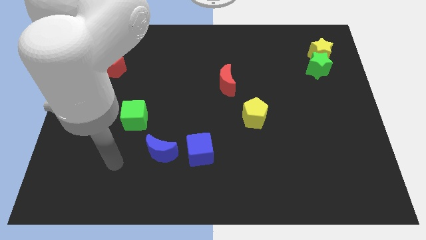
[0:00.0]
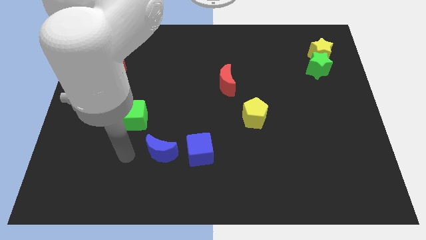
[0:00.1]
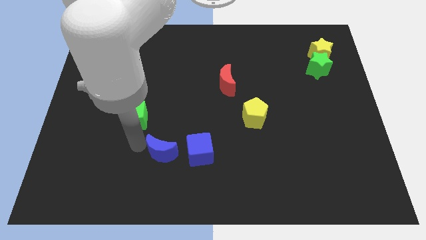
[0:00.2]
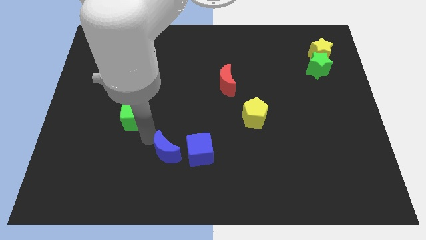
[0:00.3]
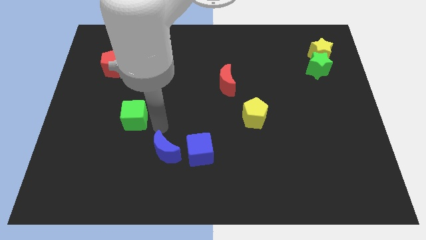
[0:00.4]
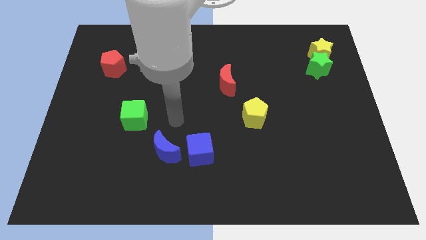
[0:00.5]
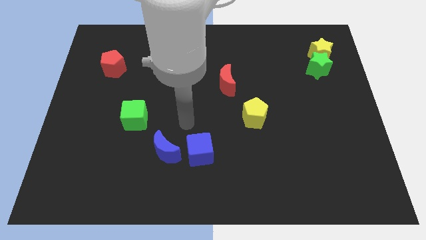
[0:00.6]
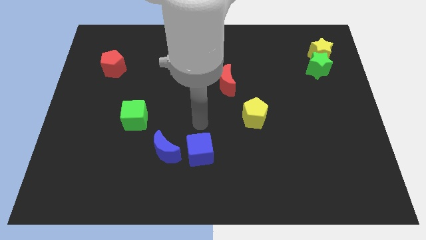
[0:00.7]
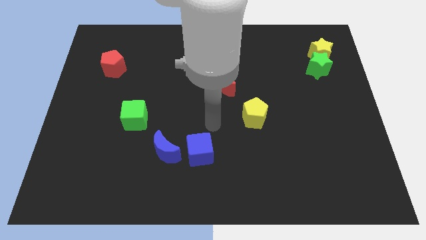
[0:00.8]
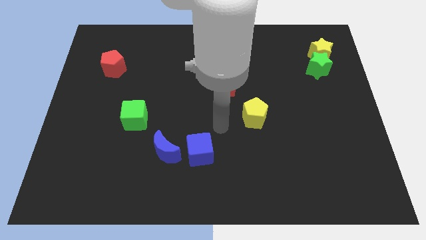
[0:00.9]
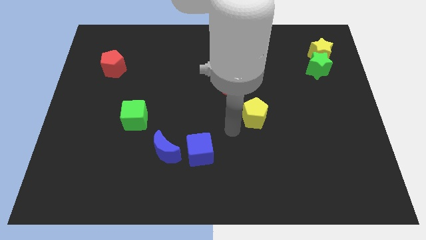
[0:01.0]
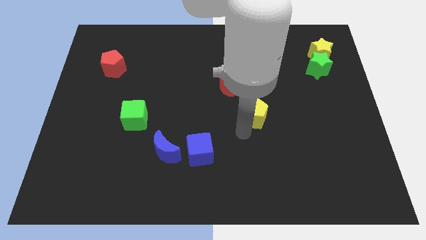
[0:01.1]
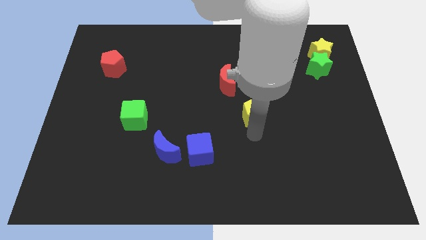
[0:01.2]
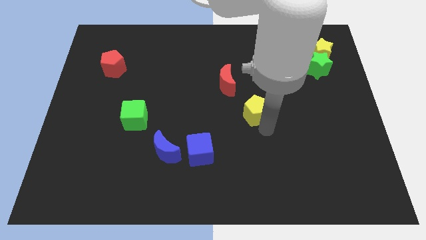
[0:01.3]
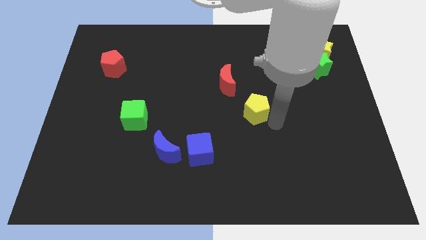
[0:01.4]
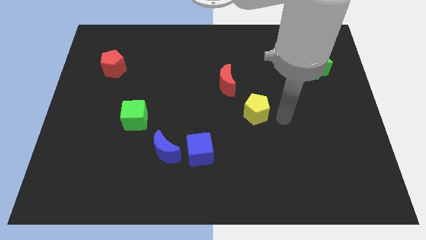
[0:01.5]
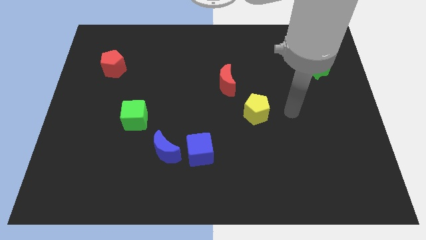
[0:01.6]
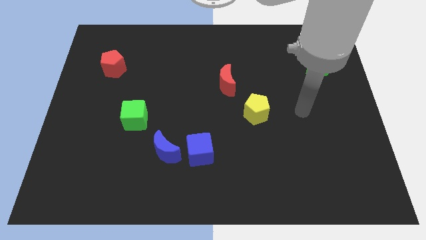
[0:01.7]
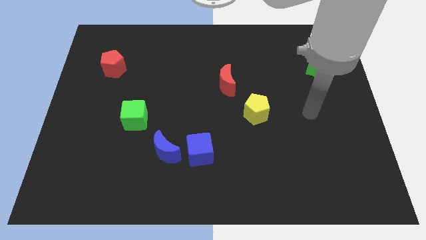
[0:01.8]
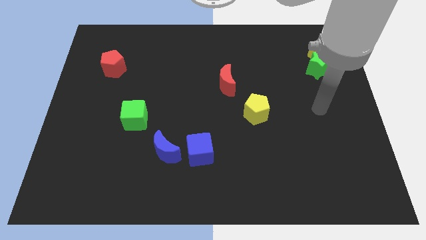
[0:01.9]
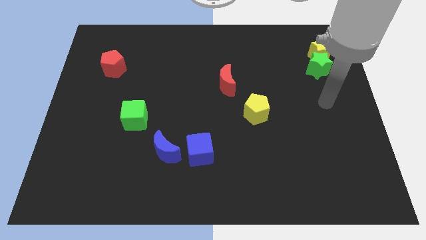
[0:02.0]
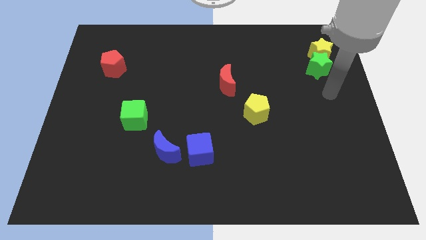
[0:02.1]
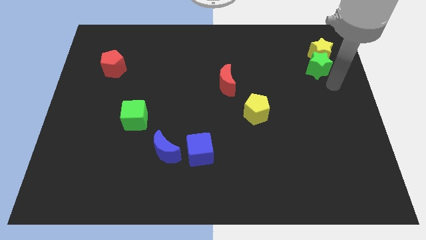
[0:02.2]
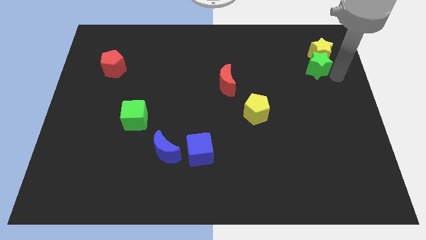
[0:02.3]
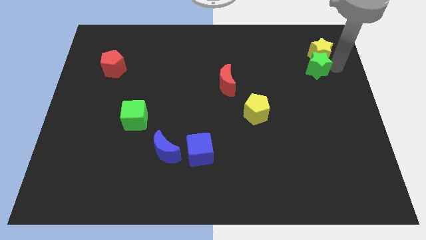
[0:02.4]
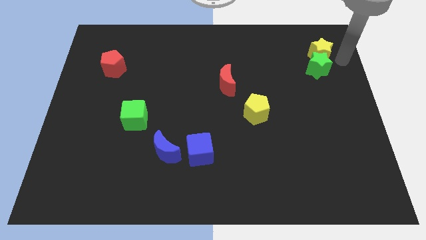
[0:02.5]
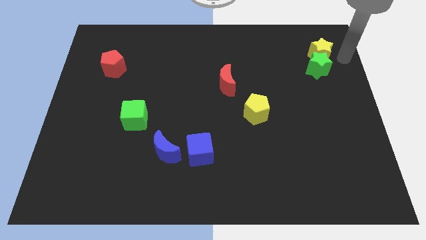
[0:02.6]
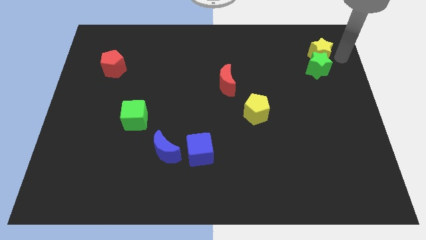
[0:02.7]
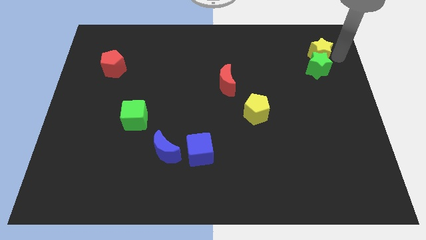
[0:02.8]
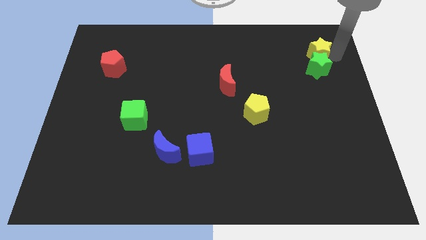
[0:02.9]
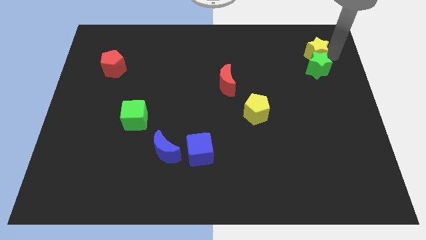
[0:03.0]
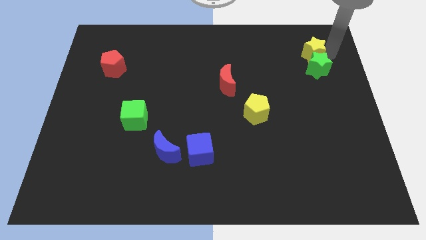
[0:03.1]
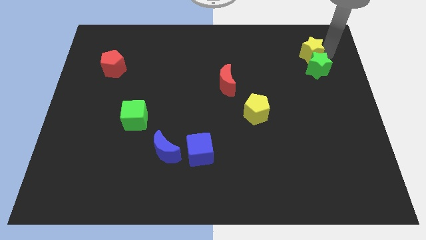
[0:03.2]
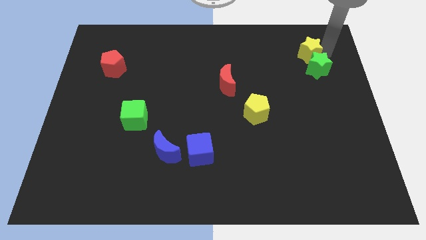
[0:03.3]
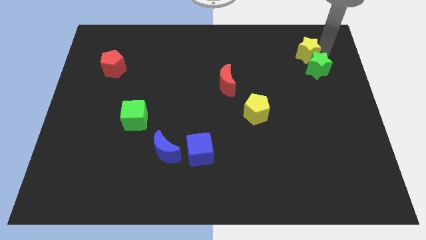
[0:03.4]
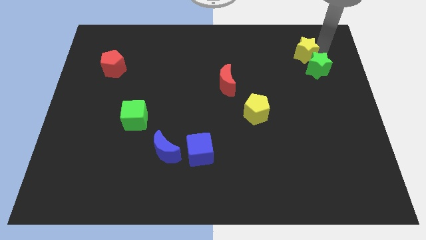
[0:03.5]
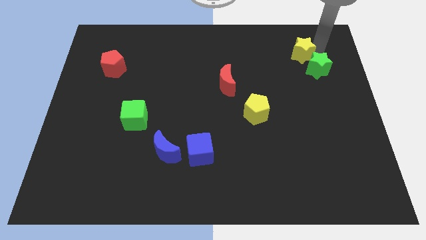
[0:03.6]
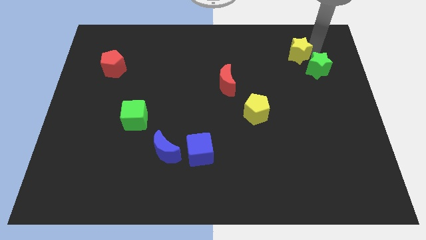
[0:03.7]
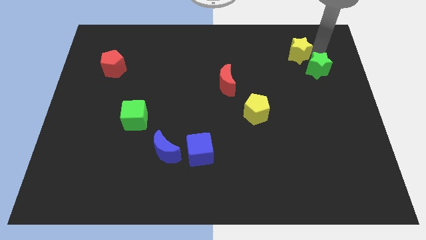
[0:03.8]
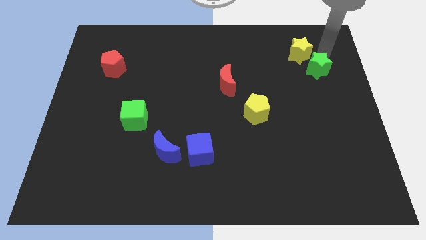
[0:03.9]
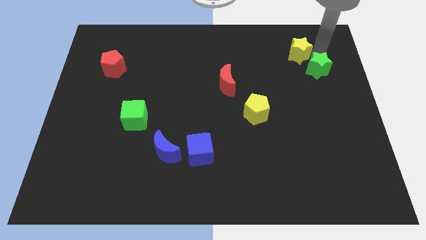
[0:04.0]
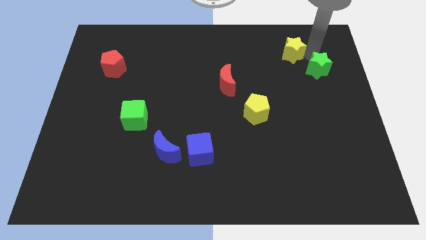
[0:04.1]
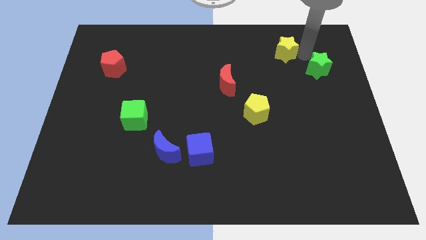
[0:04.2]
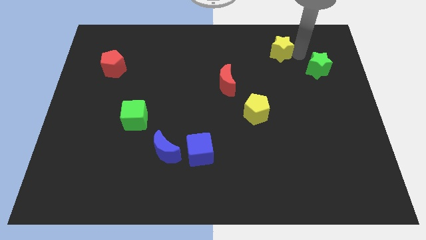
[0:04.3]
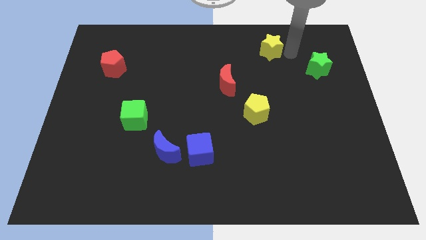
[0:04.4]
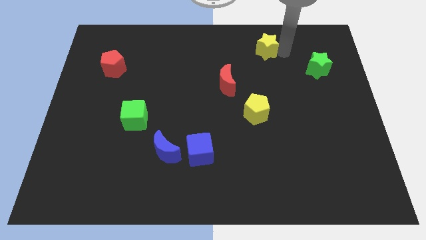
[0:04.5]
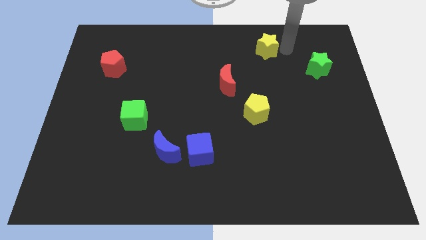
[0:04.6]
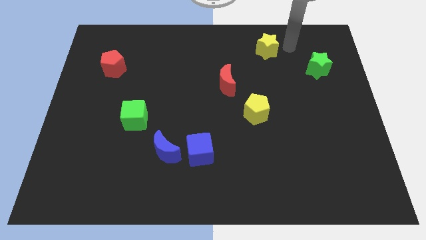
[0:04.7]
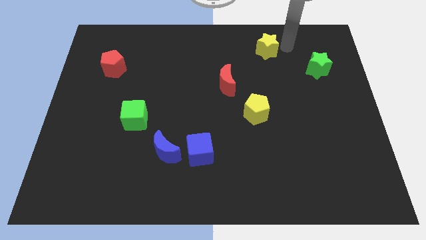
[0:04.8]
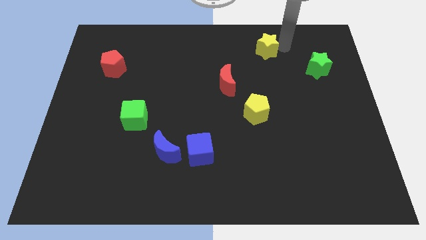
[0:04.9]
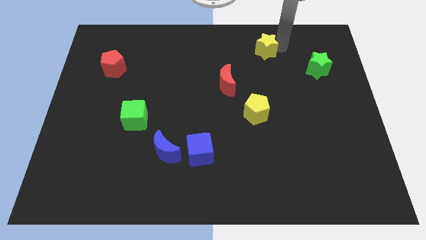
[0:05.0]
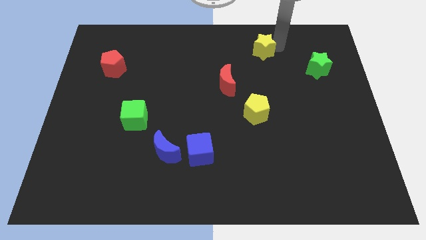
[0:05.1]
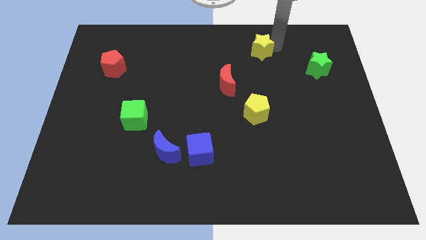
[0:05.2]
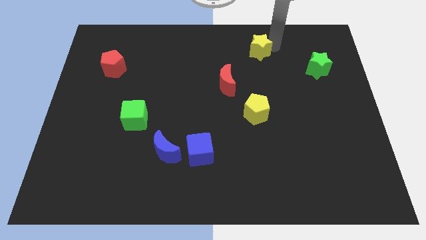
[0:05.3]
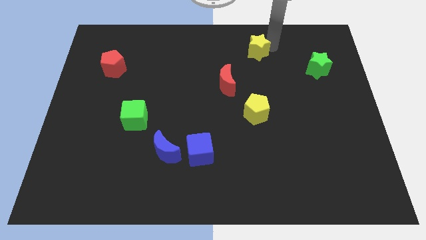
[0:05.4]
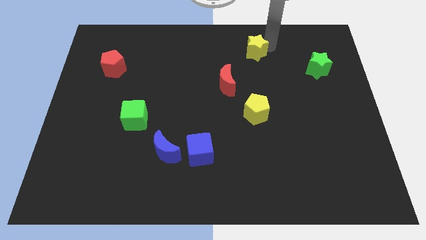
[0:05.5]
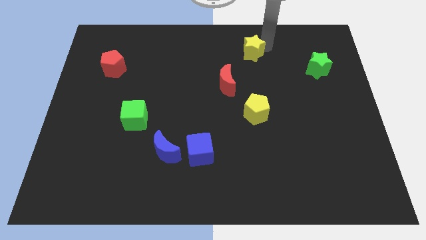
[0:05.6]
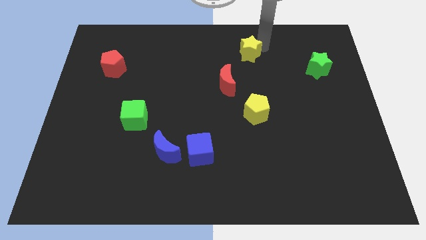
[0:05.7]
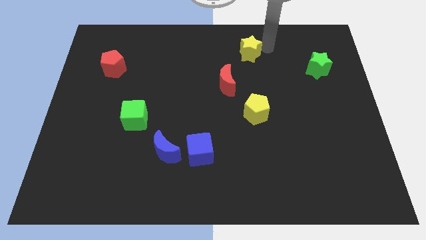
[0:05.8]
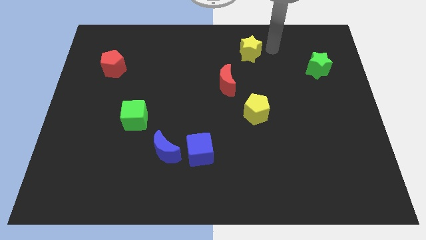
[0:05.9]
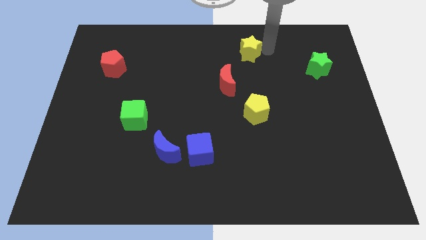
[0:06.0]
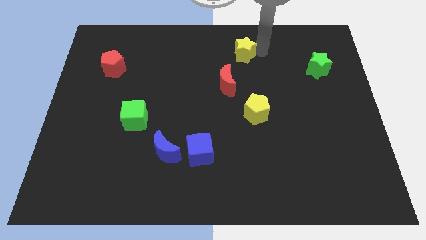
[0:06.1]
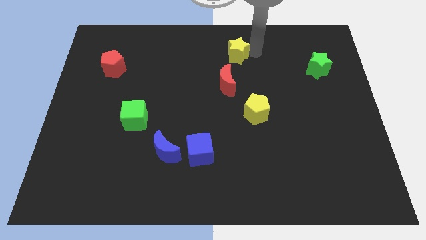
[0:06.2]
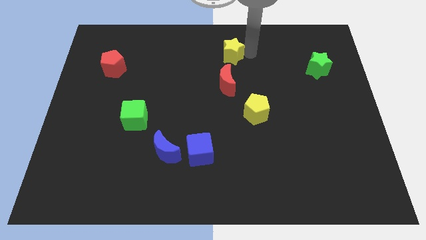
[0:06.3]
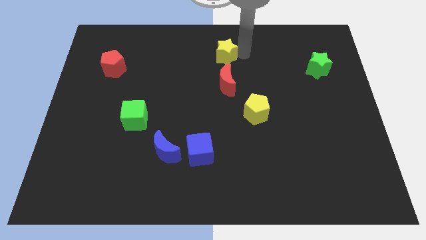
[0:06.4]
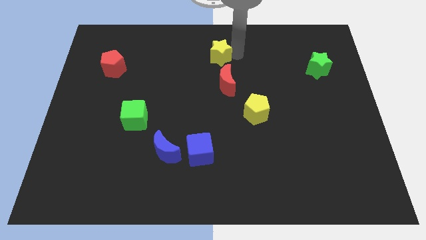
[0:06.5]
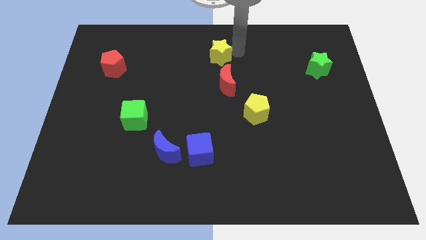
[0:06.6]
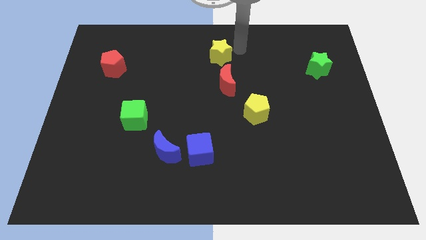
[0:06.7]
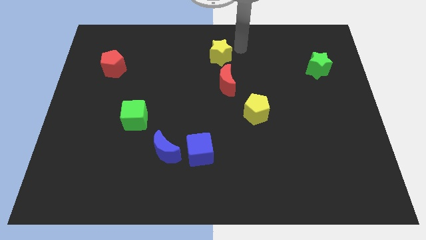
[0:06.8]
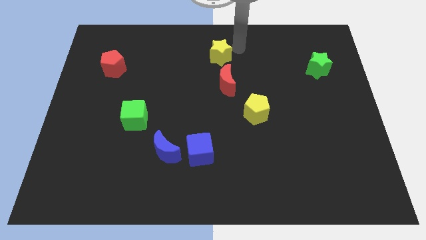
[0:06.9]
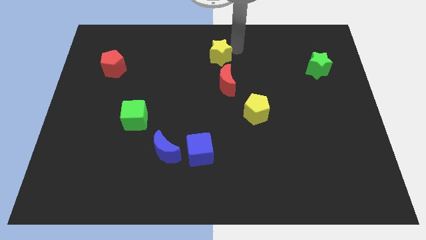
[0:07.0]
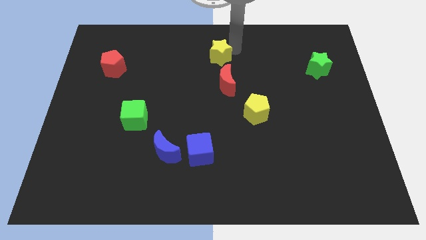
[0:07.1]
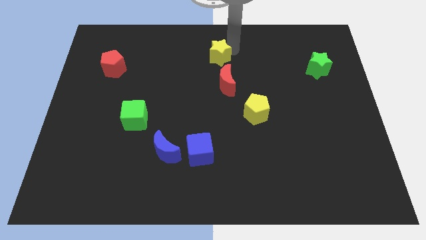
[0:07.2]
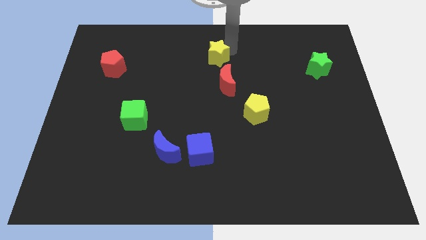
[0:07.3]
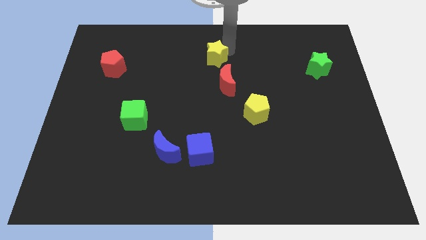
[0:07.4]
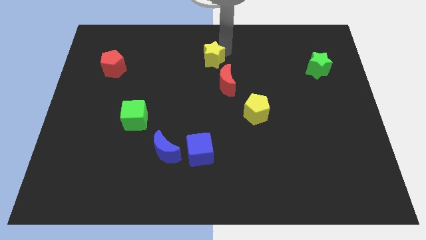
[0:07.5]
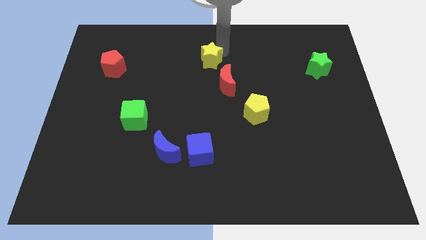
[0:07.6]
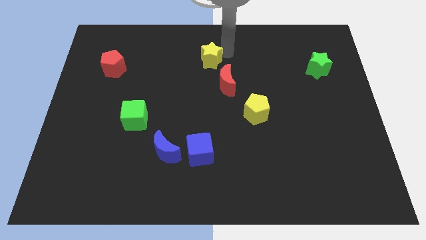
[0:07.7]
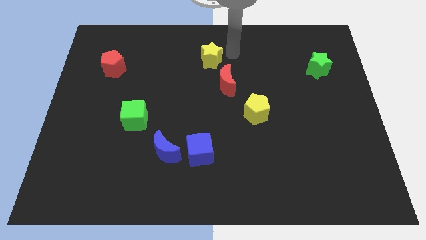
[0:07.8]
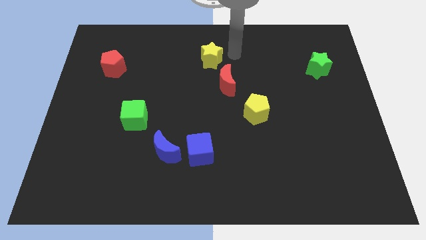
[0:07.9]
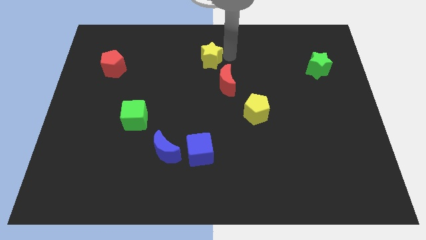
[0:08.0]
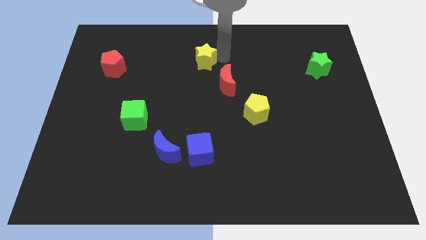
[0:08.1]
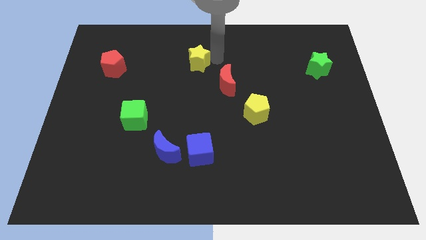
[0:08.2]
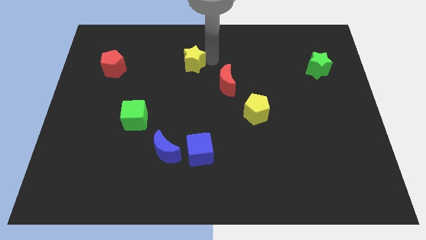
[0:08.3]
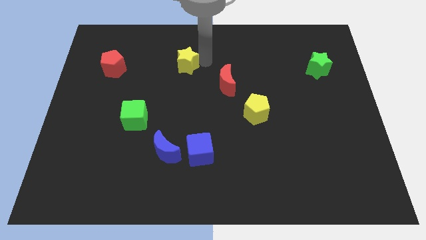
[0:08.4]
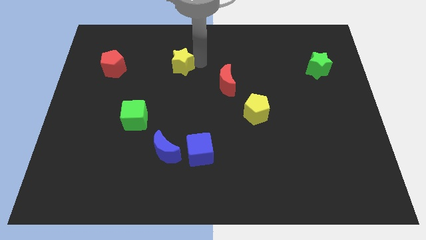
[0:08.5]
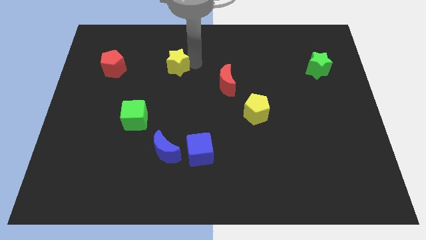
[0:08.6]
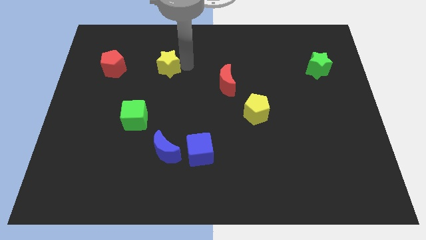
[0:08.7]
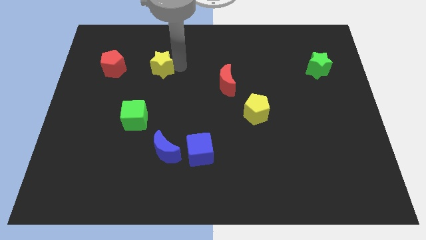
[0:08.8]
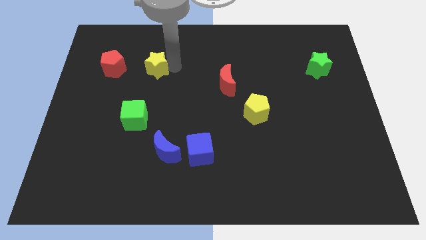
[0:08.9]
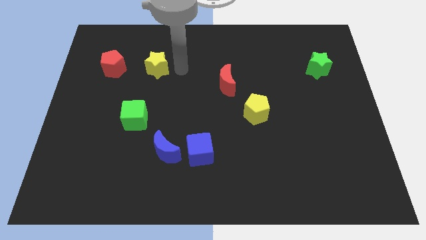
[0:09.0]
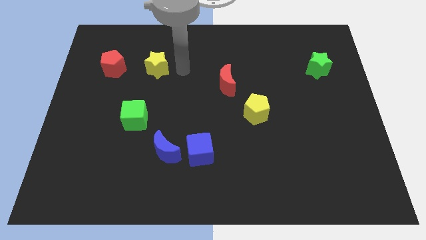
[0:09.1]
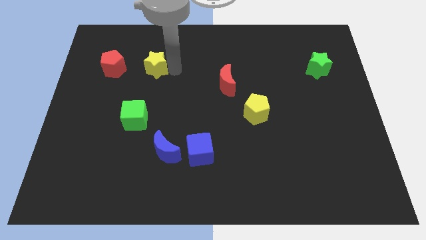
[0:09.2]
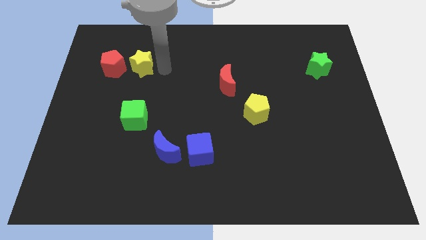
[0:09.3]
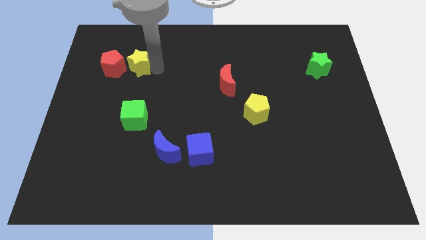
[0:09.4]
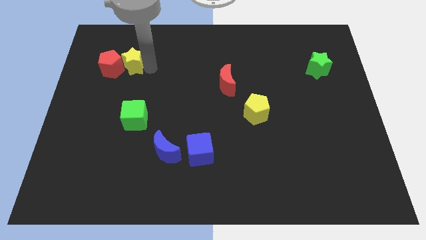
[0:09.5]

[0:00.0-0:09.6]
slide the yellow star towards the red pentagon
